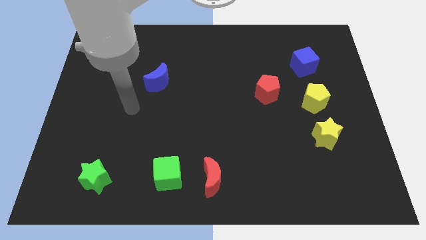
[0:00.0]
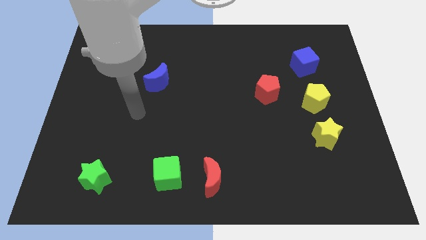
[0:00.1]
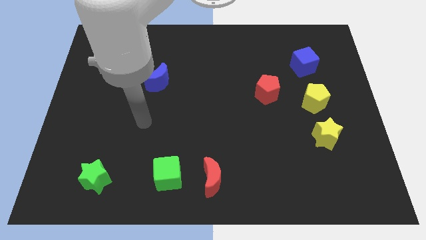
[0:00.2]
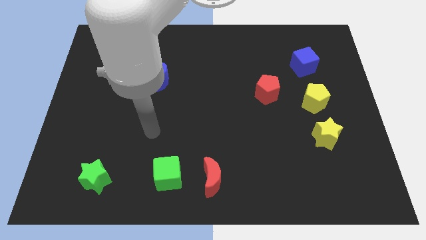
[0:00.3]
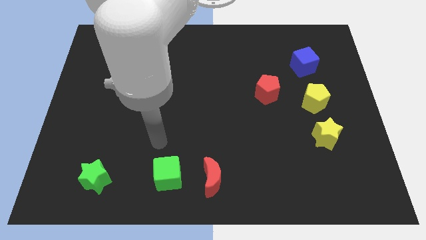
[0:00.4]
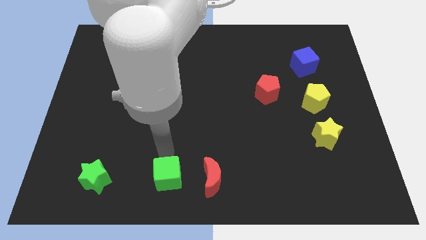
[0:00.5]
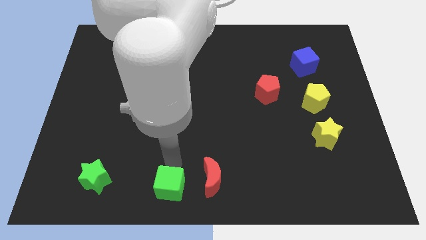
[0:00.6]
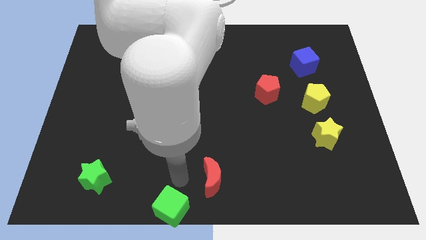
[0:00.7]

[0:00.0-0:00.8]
separate the red moon from the green cube

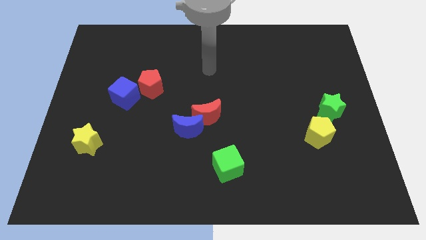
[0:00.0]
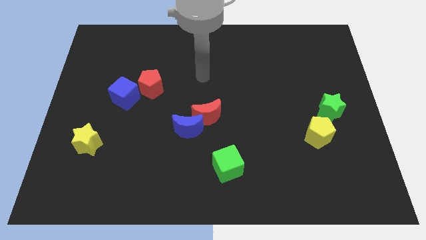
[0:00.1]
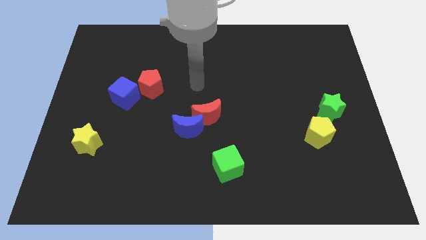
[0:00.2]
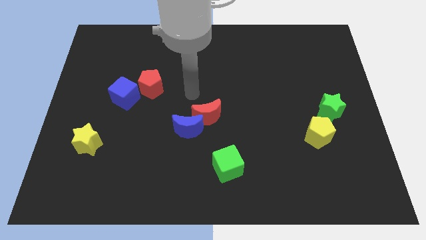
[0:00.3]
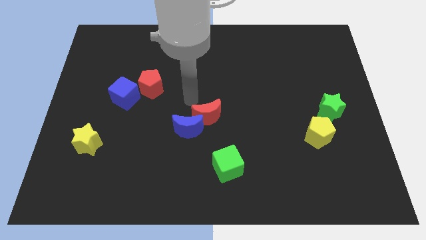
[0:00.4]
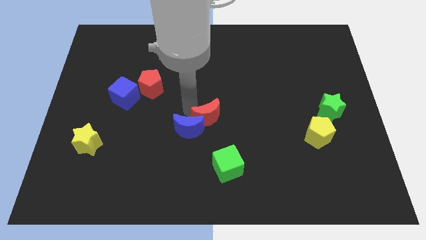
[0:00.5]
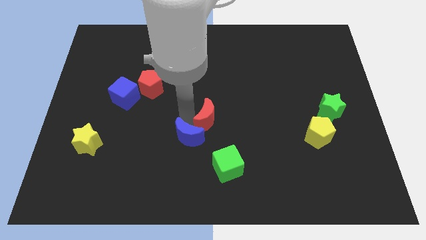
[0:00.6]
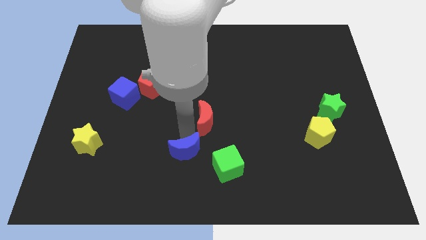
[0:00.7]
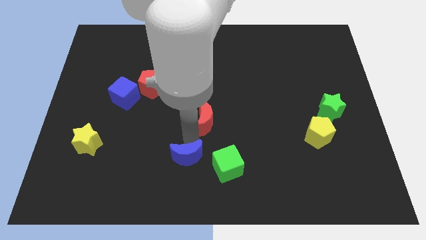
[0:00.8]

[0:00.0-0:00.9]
separate the red moon from the blue moon

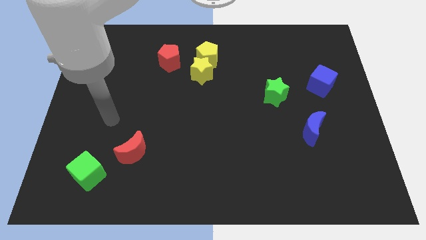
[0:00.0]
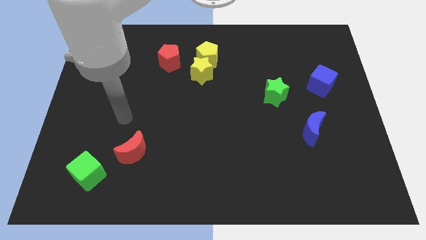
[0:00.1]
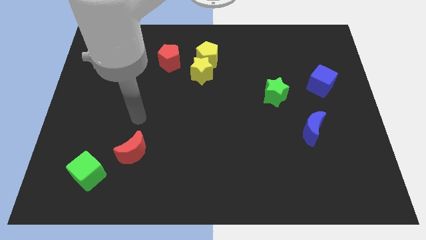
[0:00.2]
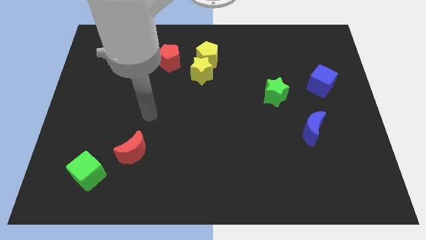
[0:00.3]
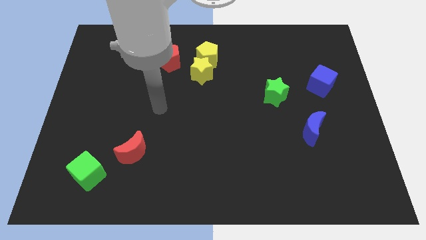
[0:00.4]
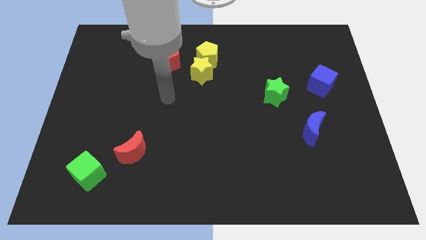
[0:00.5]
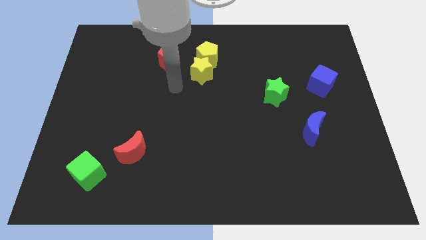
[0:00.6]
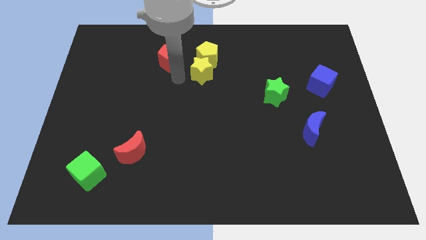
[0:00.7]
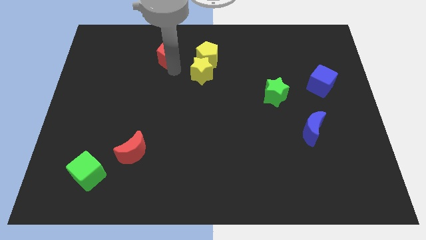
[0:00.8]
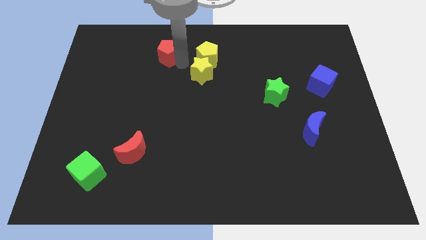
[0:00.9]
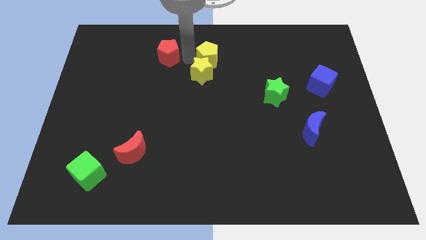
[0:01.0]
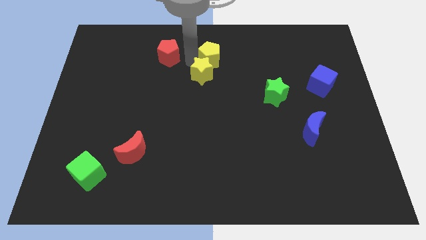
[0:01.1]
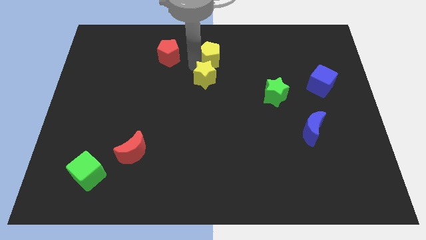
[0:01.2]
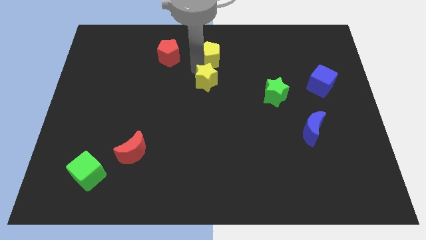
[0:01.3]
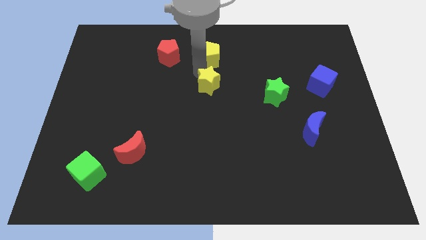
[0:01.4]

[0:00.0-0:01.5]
pull the yellow star apart from the yellow pentagon and red pentagon

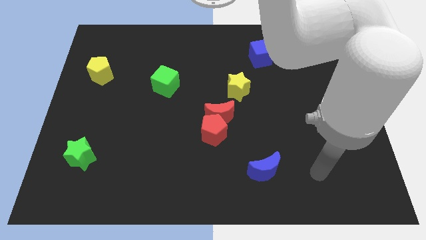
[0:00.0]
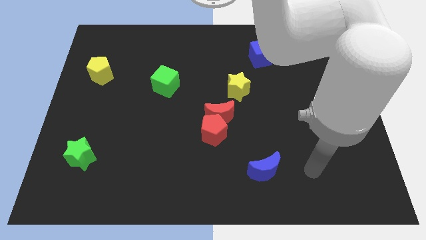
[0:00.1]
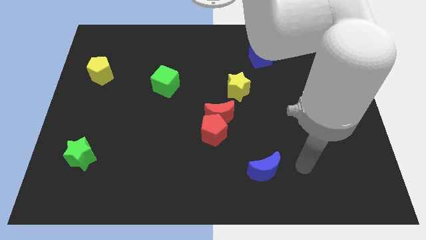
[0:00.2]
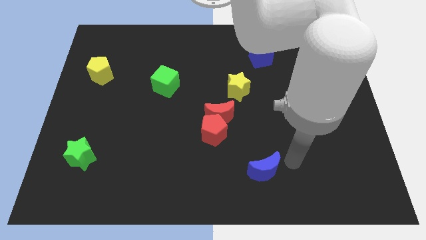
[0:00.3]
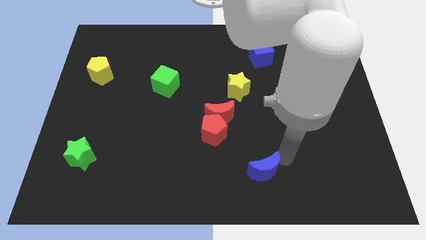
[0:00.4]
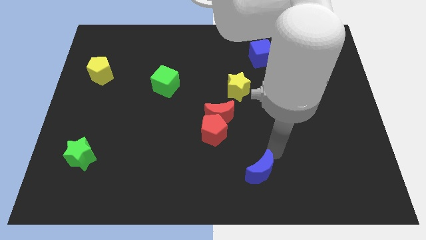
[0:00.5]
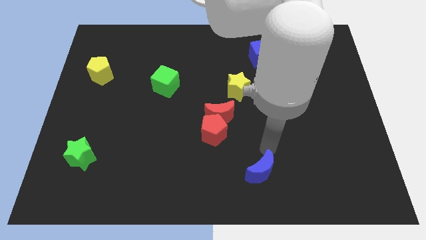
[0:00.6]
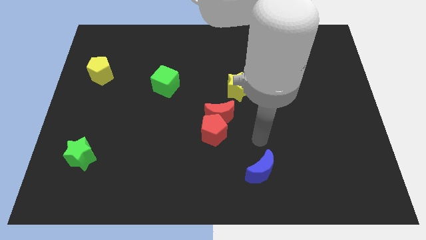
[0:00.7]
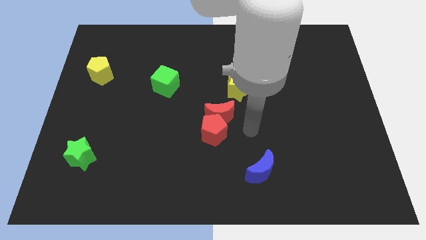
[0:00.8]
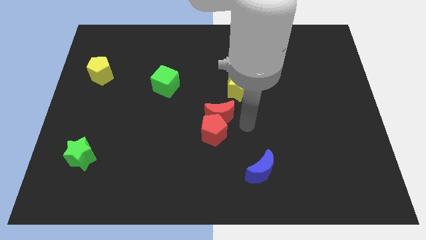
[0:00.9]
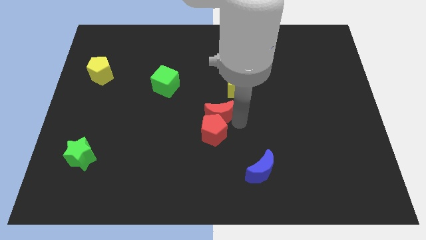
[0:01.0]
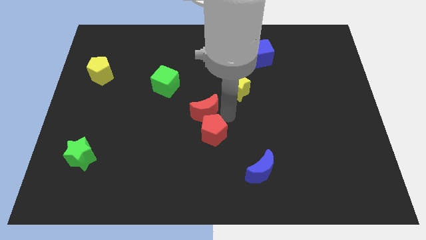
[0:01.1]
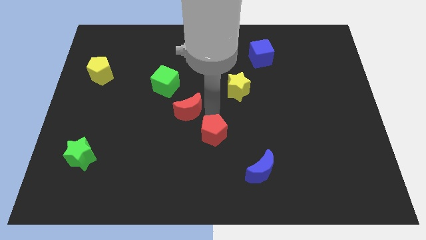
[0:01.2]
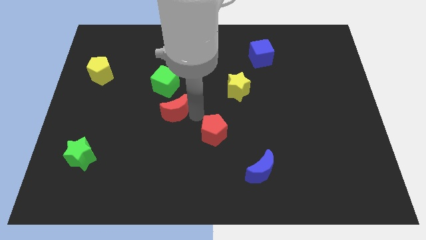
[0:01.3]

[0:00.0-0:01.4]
pull the red pentagon apart from the red moon

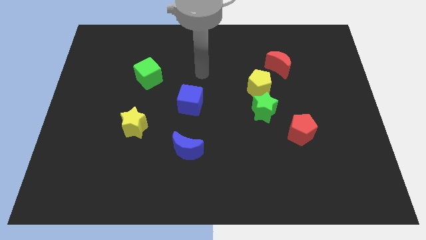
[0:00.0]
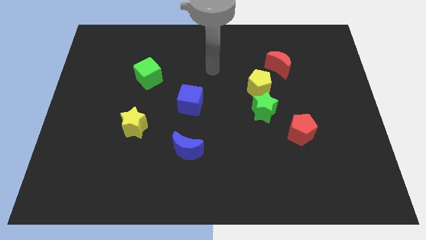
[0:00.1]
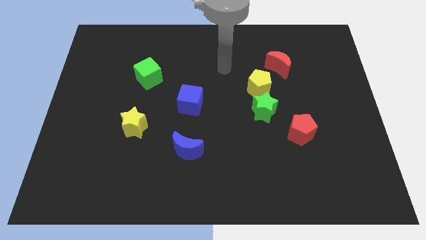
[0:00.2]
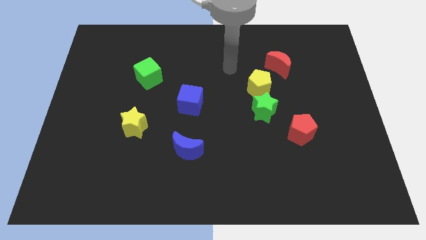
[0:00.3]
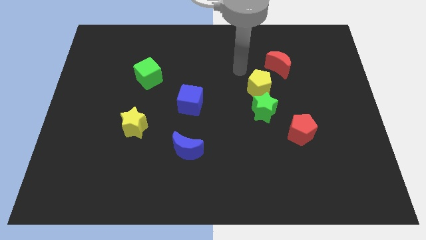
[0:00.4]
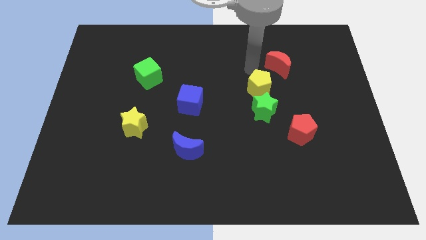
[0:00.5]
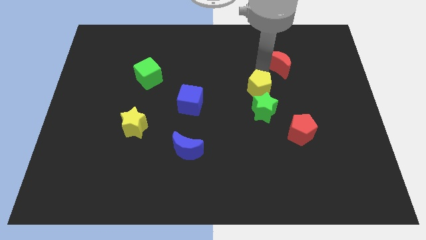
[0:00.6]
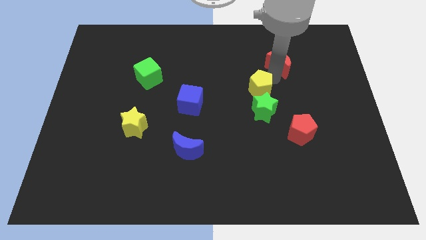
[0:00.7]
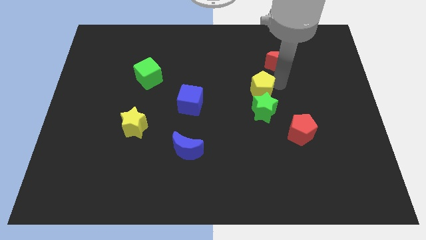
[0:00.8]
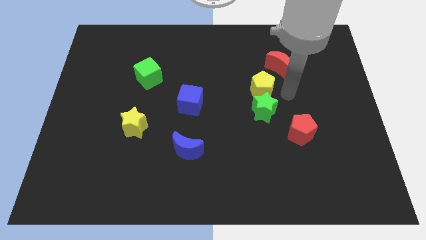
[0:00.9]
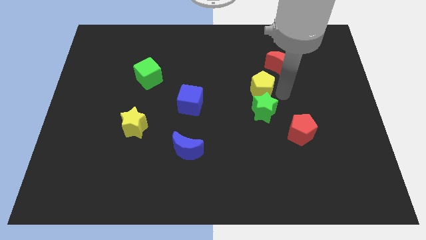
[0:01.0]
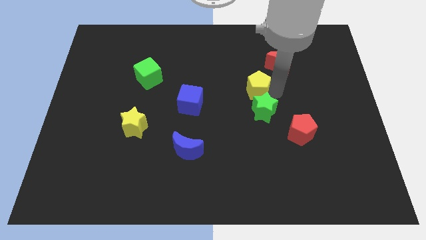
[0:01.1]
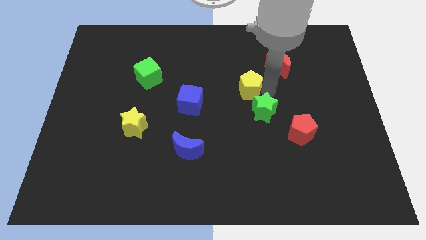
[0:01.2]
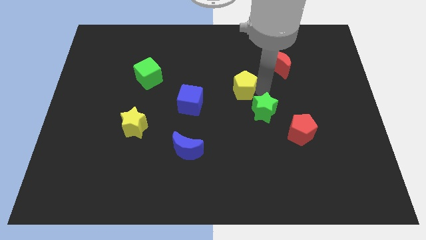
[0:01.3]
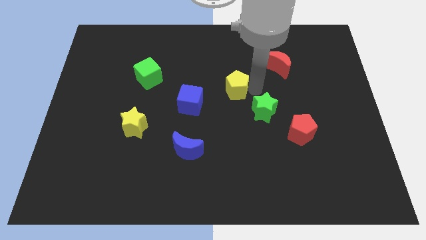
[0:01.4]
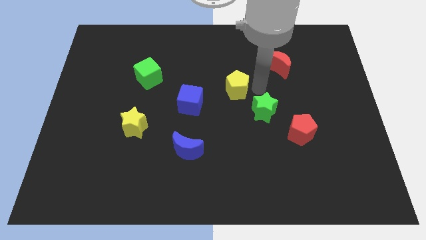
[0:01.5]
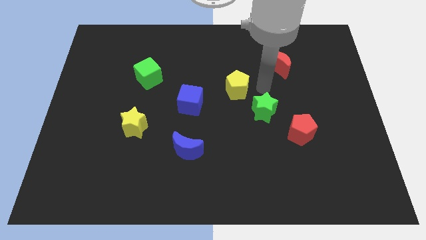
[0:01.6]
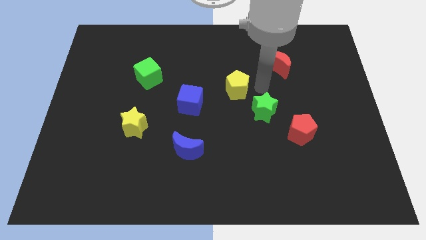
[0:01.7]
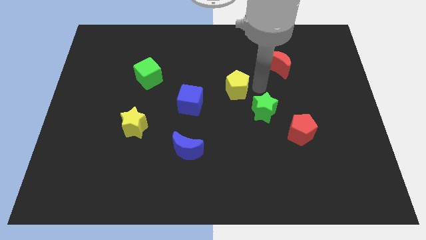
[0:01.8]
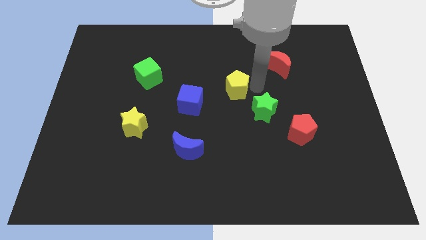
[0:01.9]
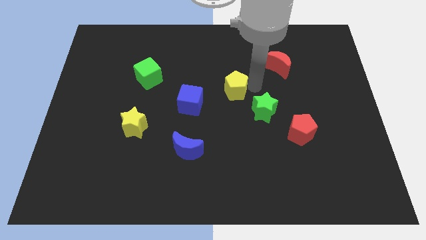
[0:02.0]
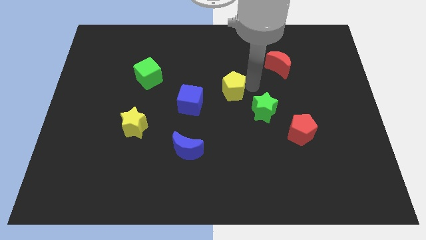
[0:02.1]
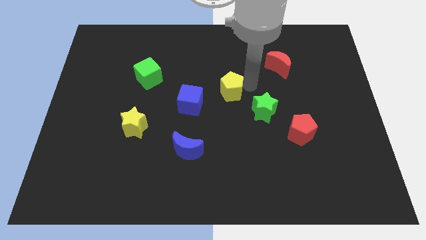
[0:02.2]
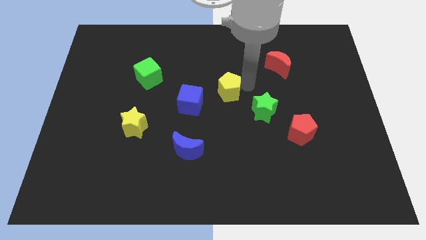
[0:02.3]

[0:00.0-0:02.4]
move the yellow pentagon away from the green star and red moon

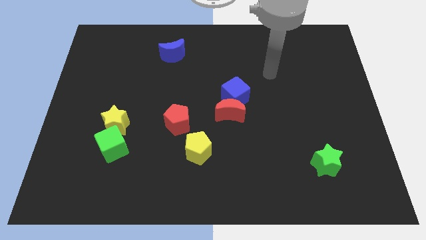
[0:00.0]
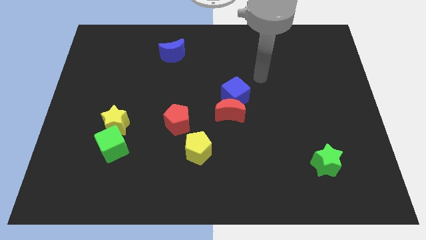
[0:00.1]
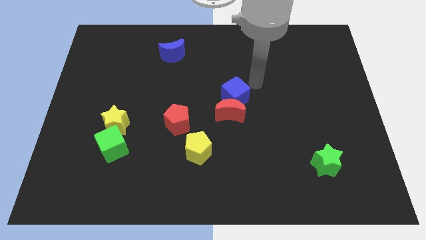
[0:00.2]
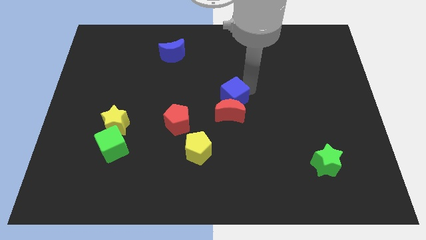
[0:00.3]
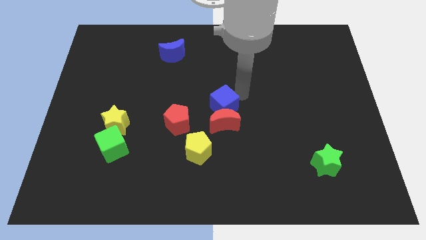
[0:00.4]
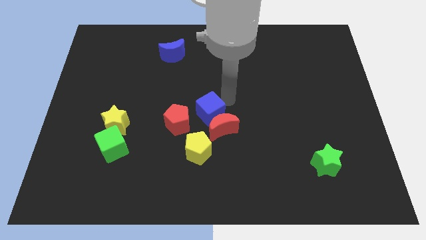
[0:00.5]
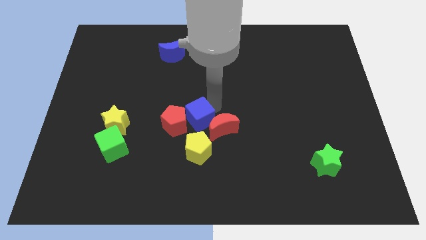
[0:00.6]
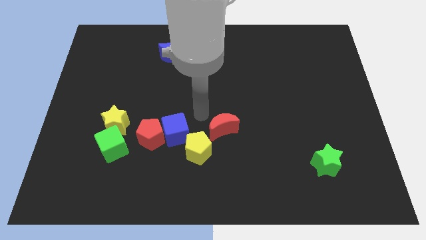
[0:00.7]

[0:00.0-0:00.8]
move the red moon away from the blue cube

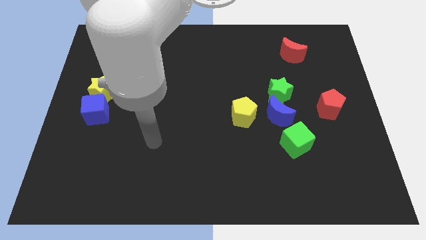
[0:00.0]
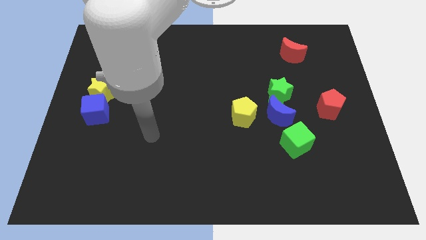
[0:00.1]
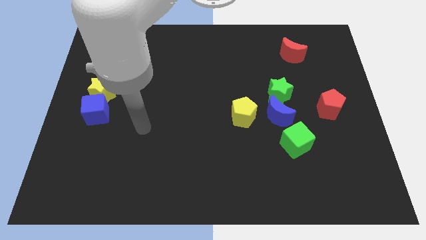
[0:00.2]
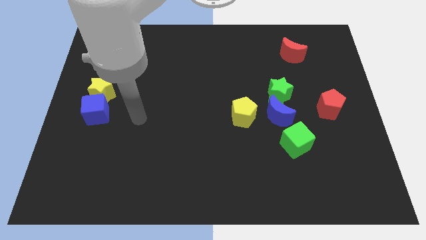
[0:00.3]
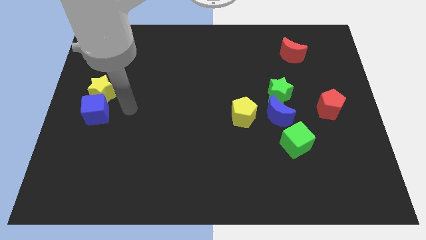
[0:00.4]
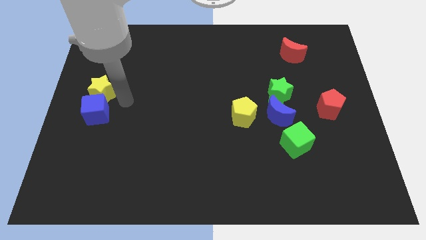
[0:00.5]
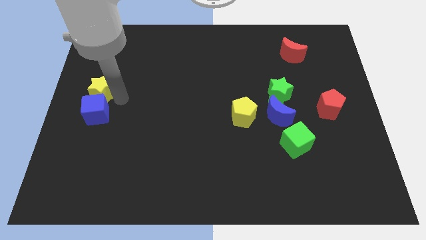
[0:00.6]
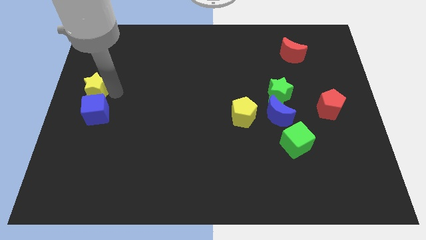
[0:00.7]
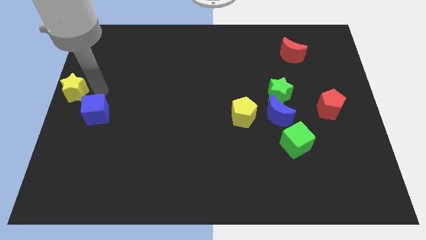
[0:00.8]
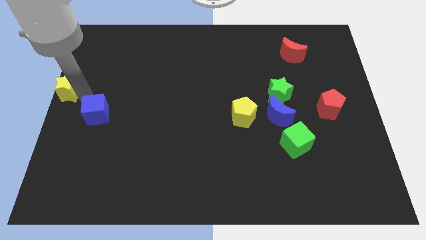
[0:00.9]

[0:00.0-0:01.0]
separate the blue cube from the yellow star

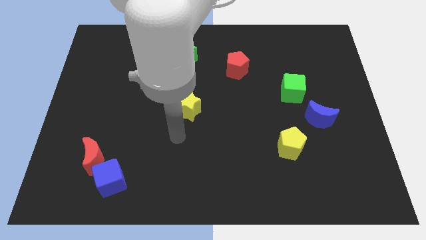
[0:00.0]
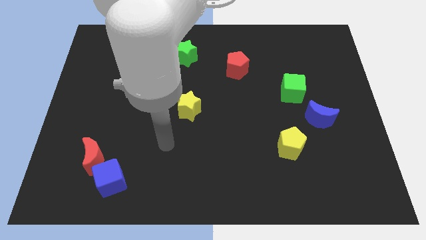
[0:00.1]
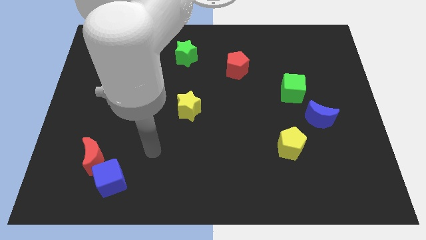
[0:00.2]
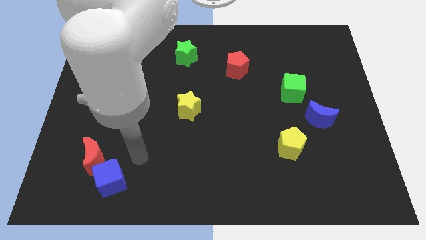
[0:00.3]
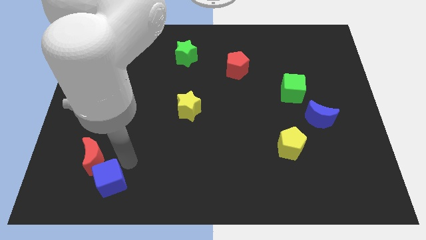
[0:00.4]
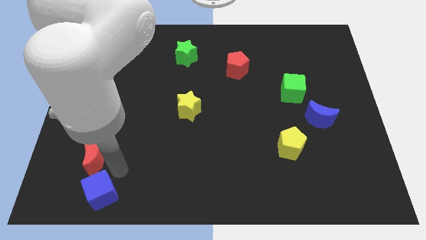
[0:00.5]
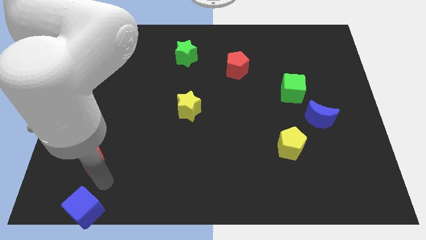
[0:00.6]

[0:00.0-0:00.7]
separate the red moon from the blue cube
